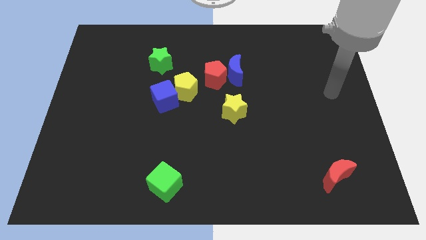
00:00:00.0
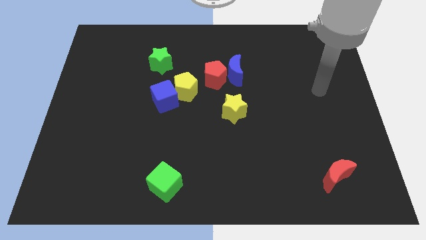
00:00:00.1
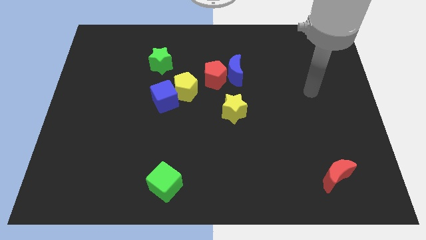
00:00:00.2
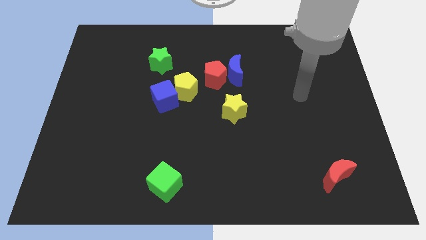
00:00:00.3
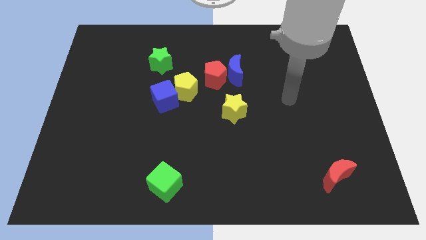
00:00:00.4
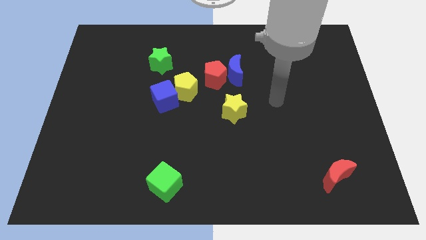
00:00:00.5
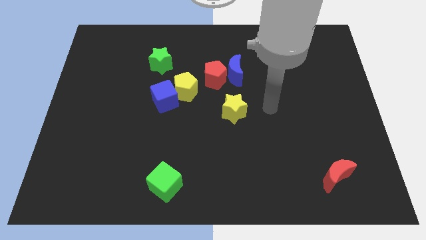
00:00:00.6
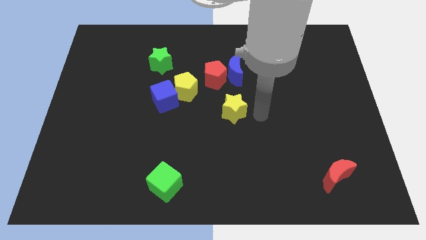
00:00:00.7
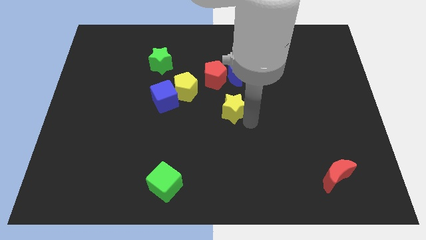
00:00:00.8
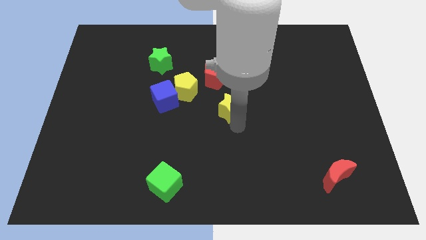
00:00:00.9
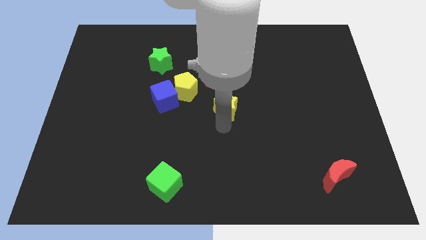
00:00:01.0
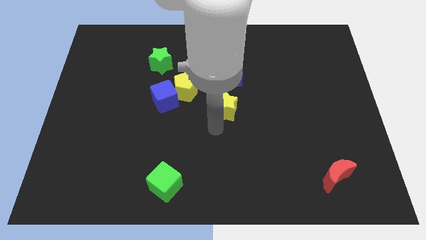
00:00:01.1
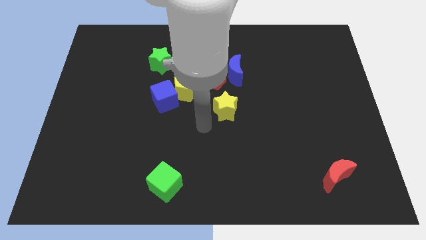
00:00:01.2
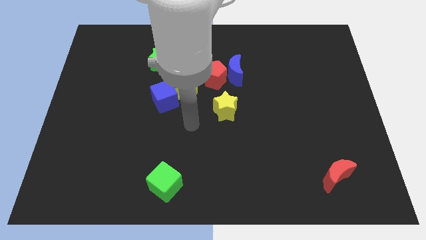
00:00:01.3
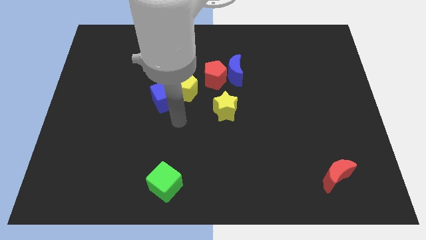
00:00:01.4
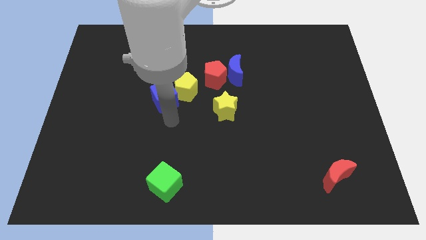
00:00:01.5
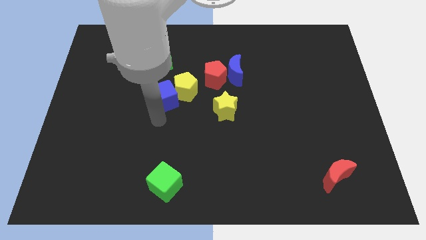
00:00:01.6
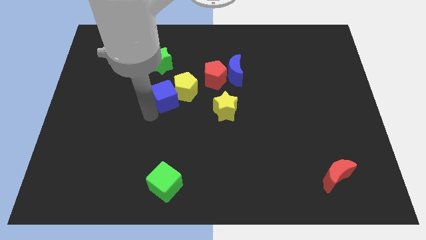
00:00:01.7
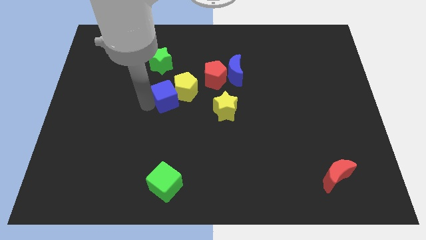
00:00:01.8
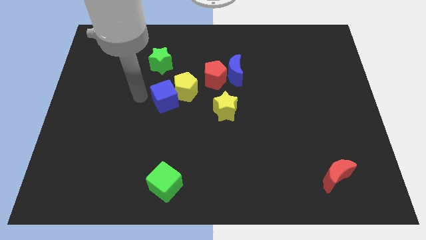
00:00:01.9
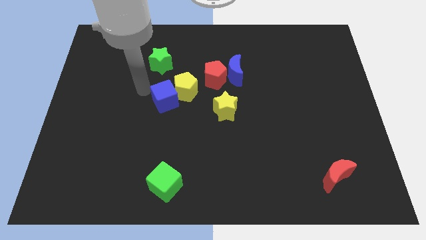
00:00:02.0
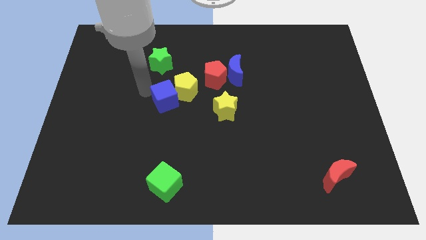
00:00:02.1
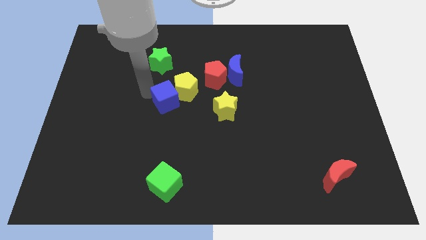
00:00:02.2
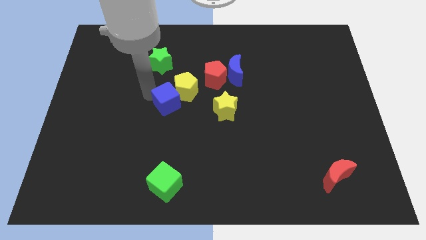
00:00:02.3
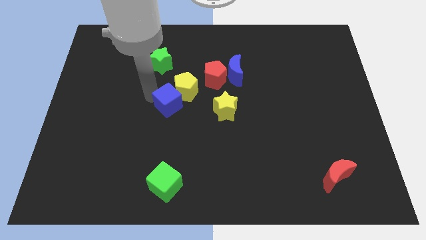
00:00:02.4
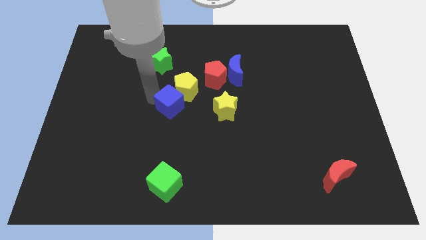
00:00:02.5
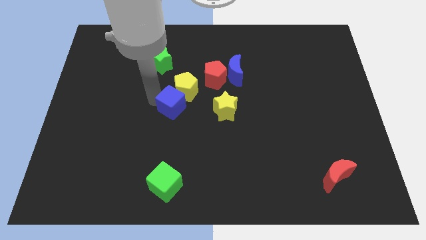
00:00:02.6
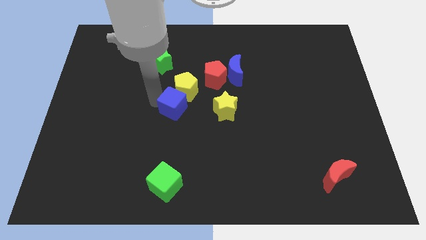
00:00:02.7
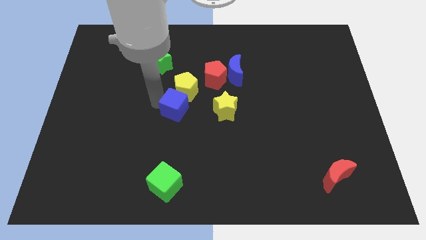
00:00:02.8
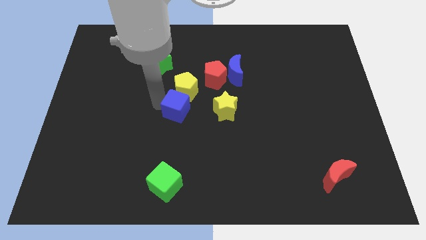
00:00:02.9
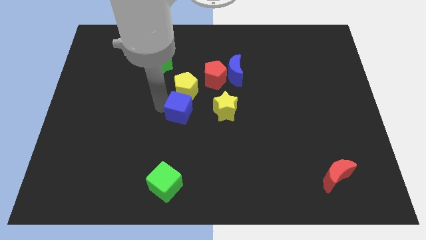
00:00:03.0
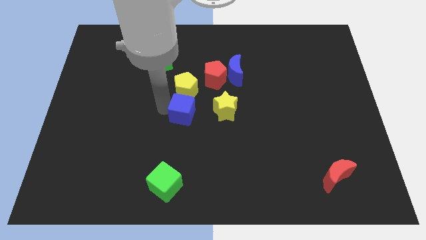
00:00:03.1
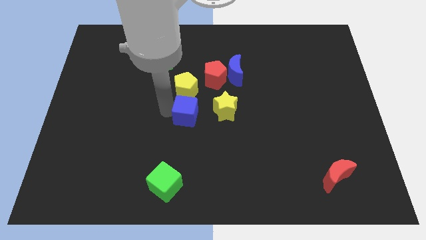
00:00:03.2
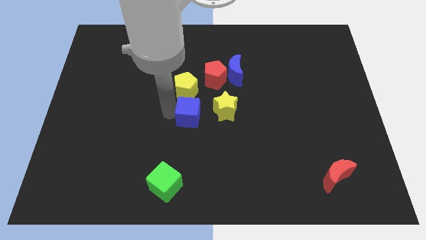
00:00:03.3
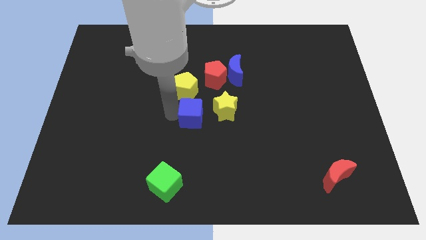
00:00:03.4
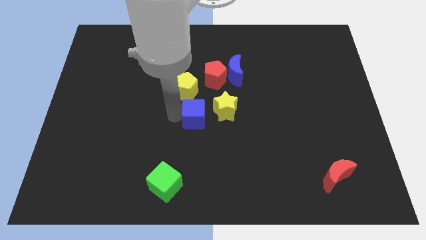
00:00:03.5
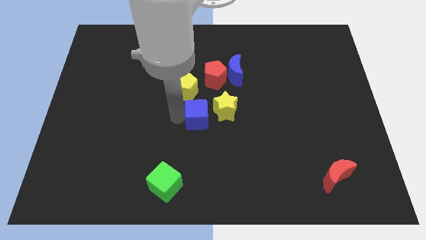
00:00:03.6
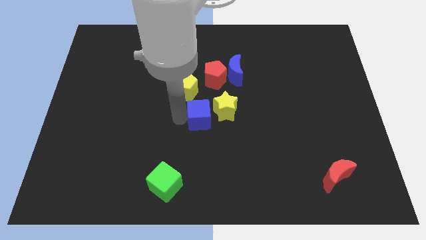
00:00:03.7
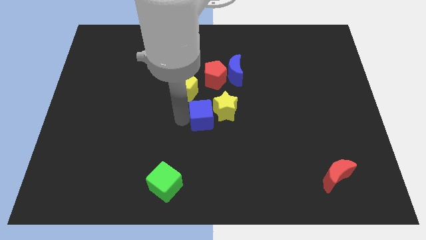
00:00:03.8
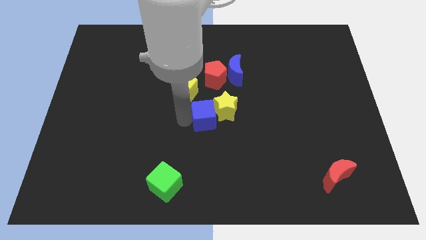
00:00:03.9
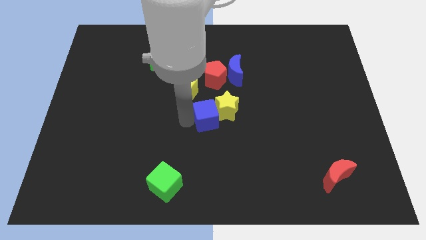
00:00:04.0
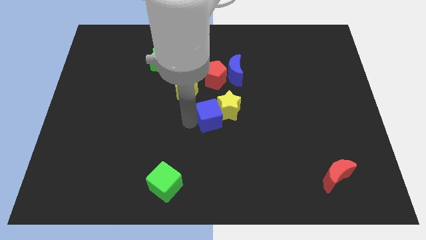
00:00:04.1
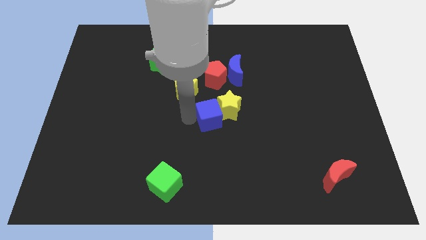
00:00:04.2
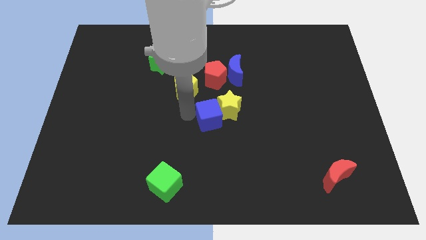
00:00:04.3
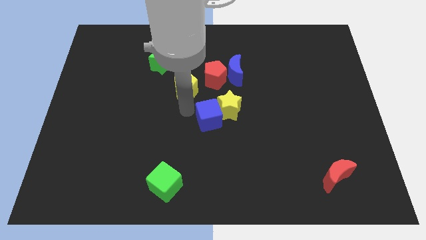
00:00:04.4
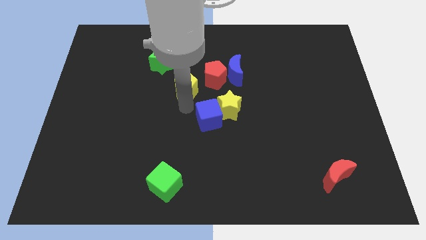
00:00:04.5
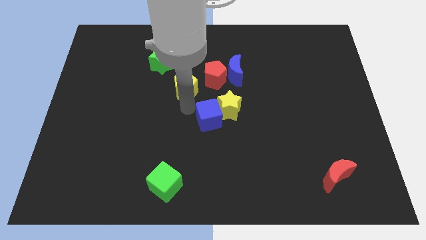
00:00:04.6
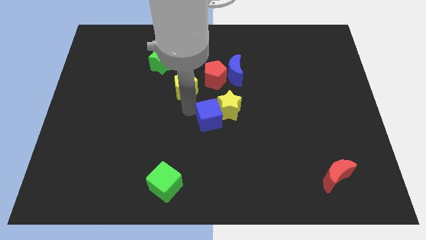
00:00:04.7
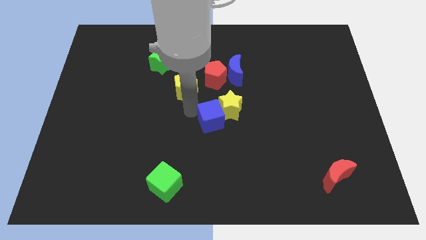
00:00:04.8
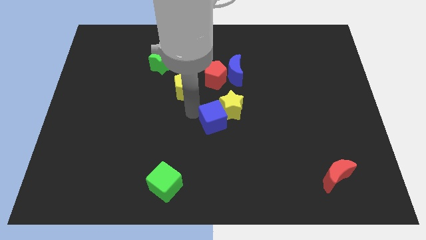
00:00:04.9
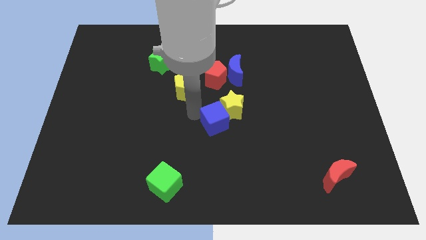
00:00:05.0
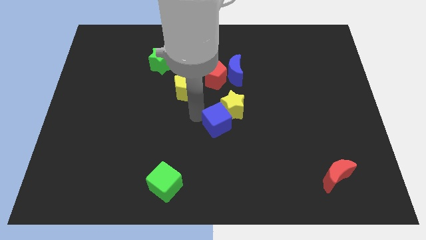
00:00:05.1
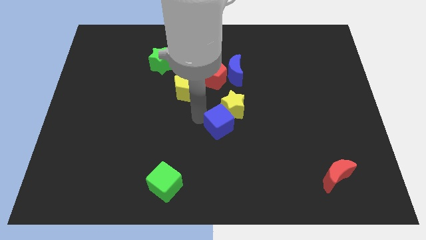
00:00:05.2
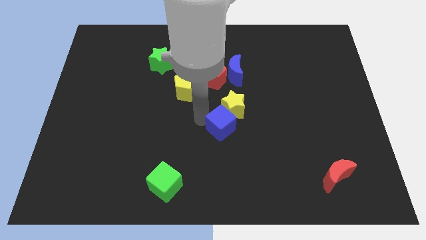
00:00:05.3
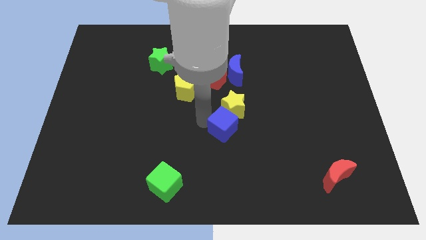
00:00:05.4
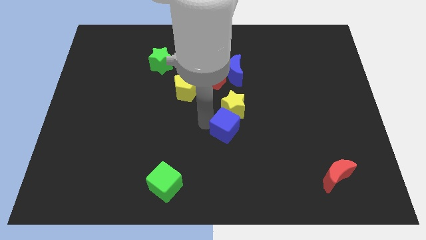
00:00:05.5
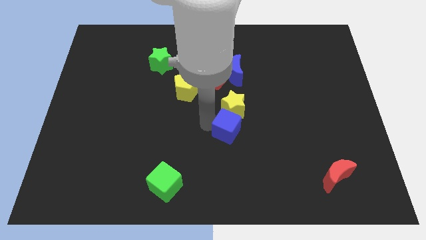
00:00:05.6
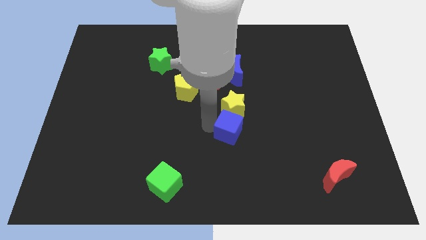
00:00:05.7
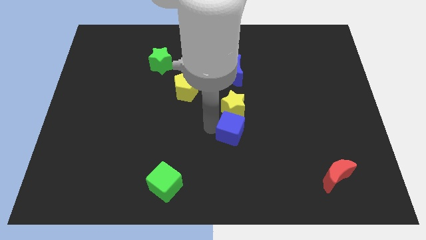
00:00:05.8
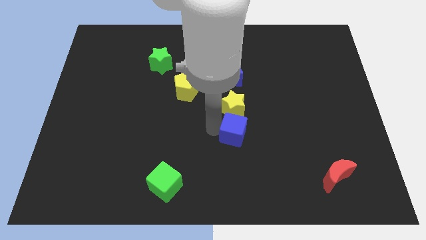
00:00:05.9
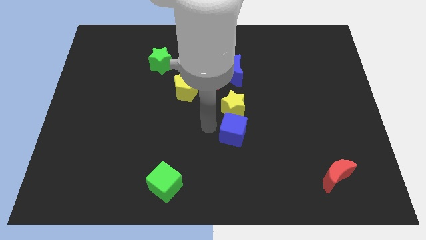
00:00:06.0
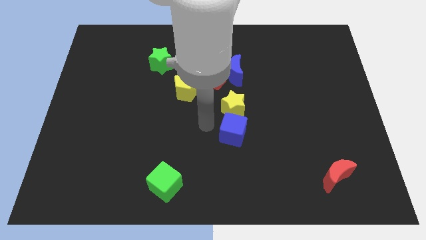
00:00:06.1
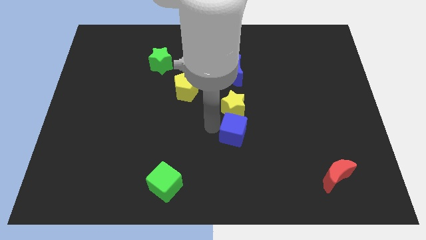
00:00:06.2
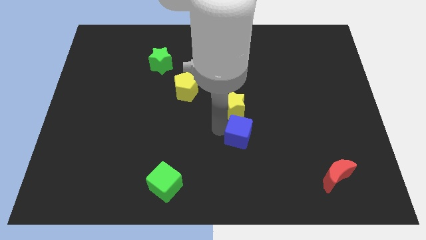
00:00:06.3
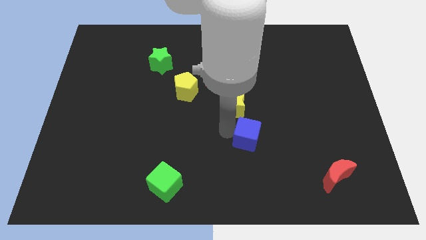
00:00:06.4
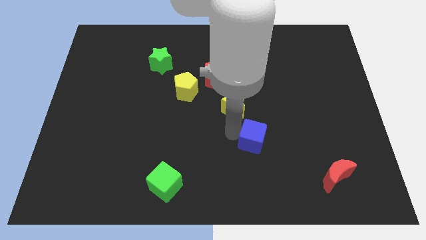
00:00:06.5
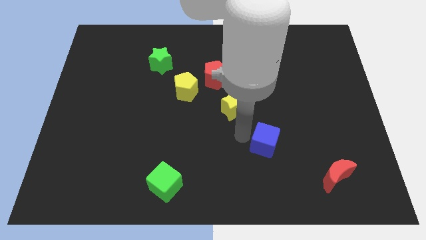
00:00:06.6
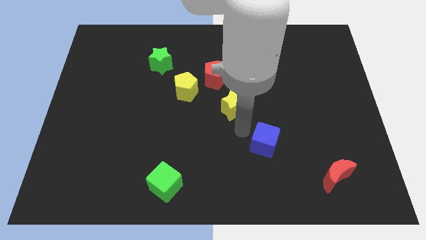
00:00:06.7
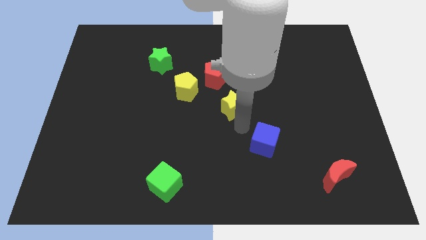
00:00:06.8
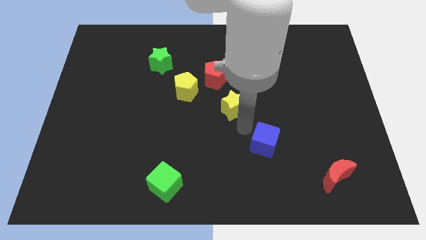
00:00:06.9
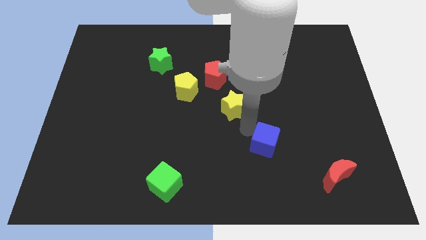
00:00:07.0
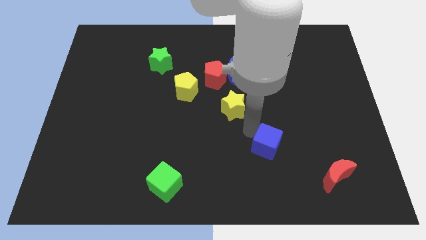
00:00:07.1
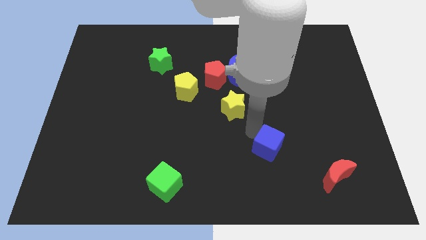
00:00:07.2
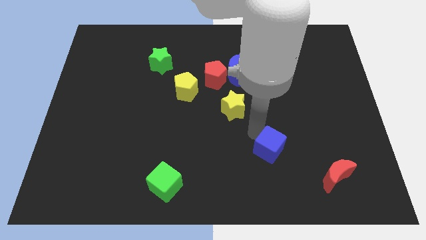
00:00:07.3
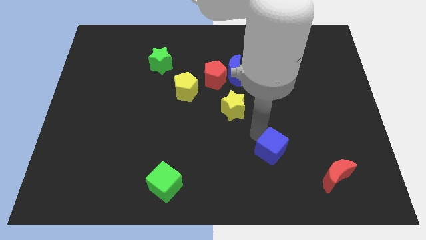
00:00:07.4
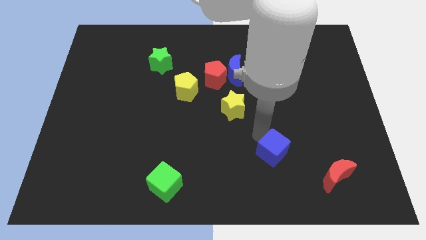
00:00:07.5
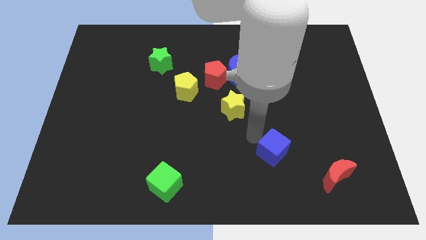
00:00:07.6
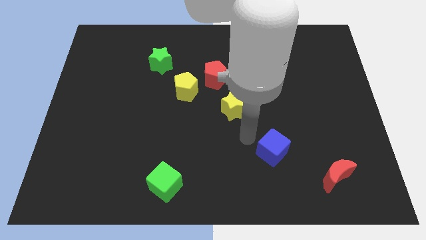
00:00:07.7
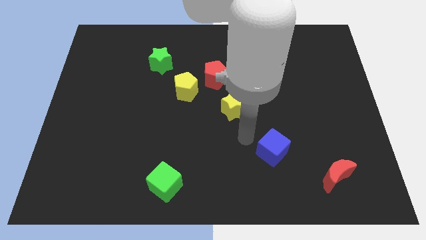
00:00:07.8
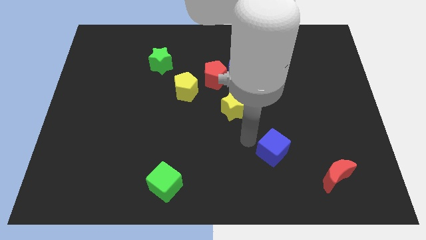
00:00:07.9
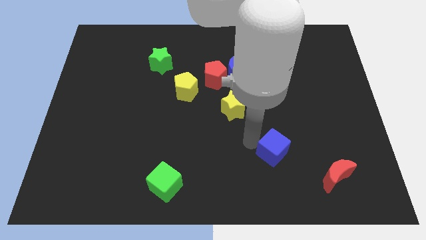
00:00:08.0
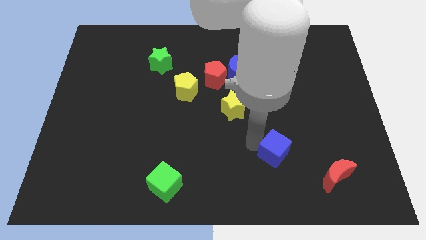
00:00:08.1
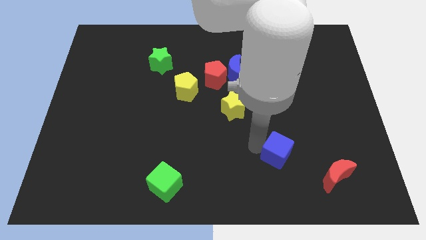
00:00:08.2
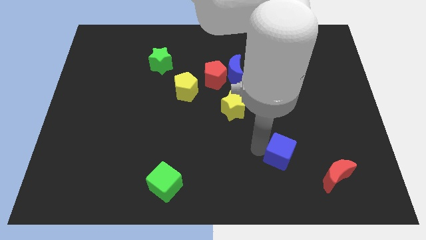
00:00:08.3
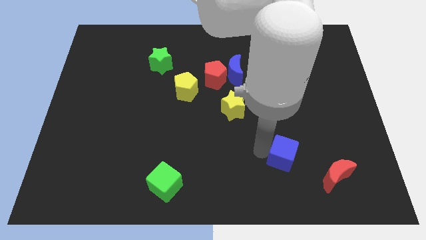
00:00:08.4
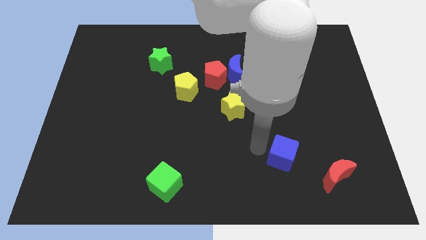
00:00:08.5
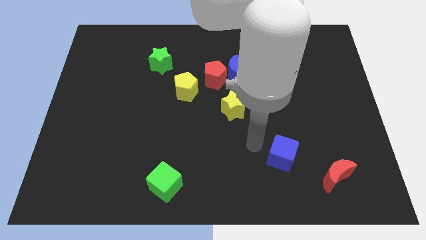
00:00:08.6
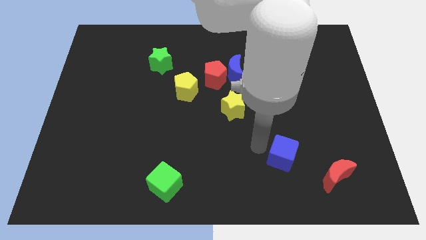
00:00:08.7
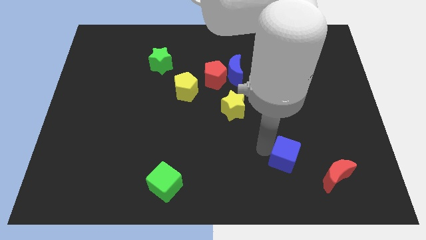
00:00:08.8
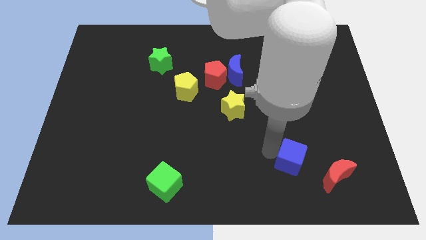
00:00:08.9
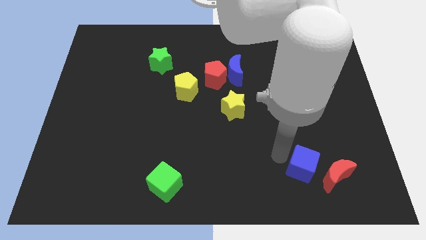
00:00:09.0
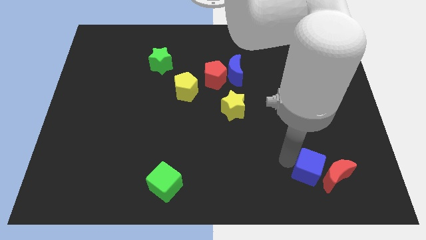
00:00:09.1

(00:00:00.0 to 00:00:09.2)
push the blue cube towards the red moon
